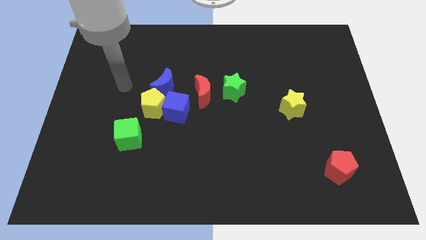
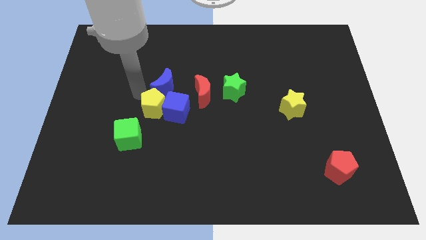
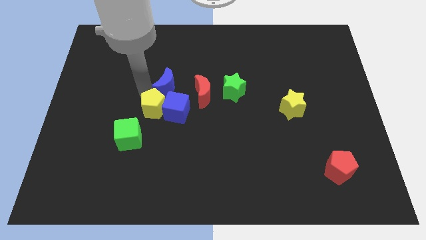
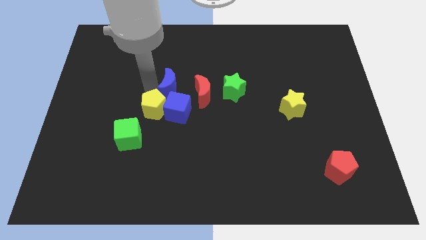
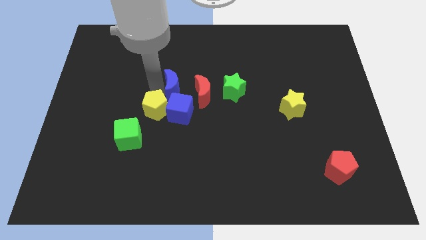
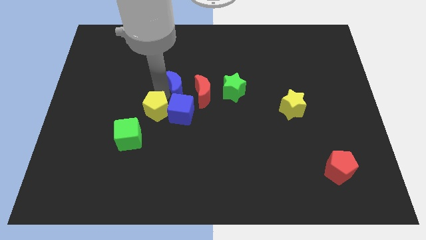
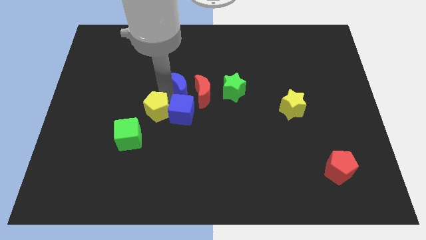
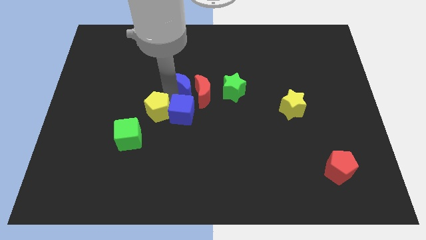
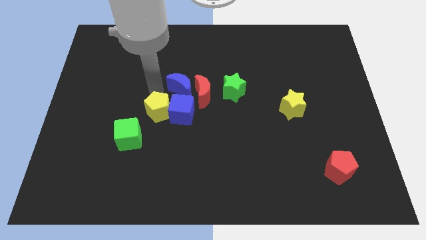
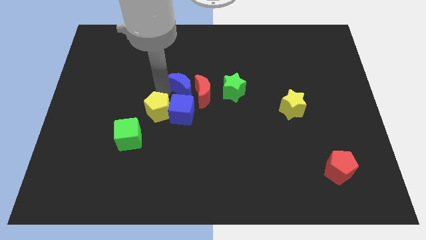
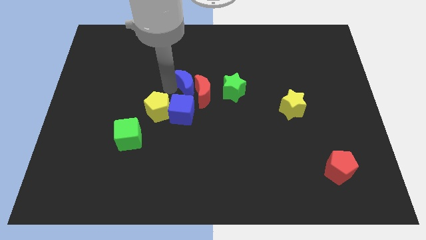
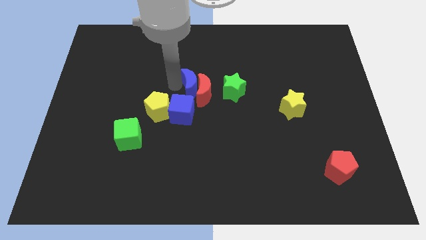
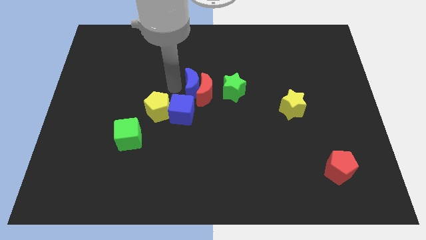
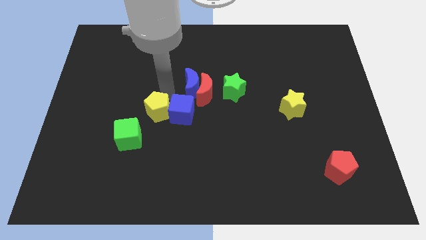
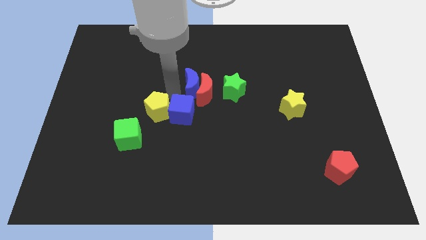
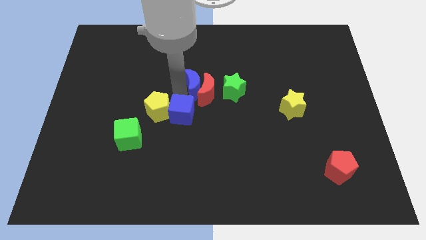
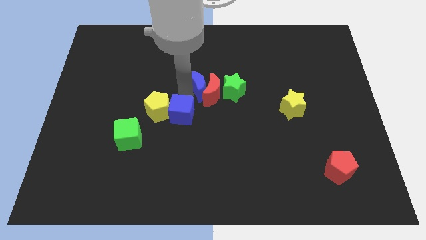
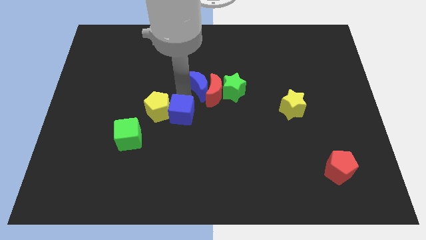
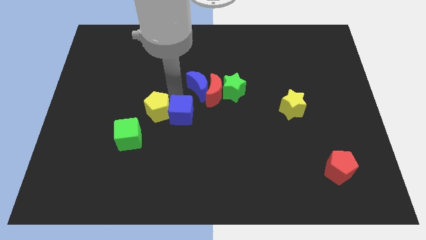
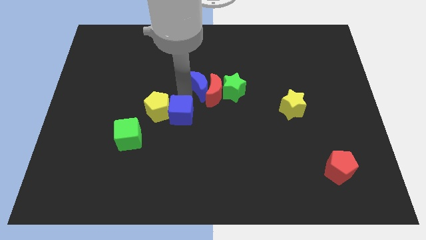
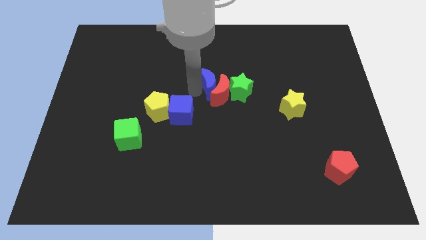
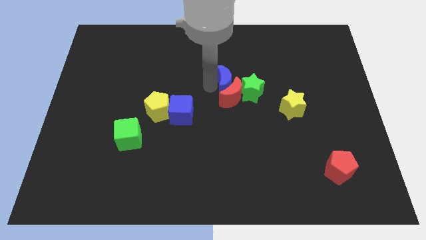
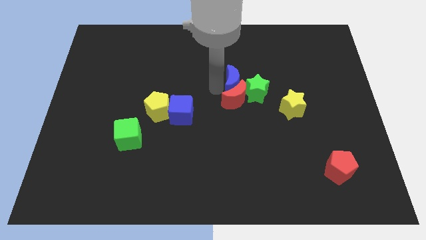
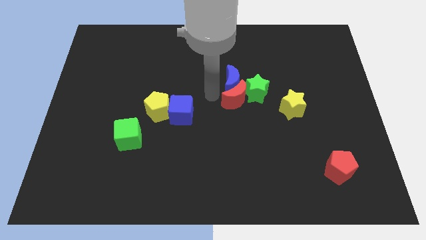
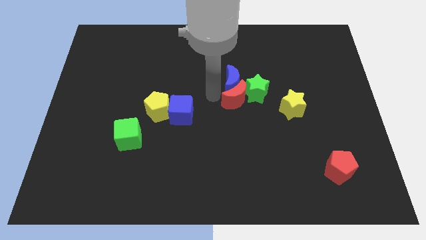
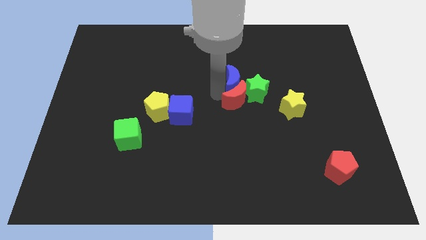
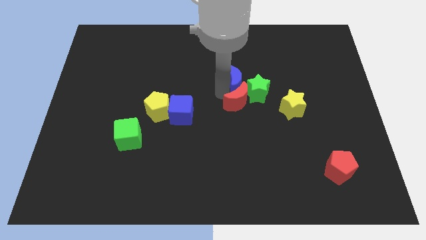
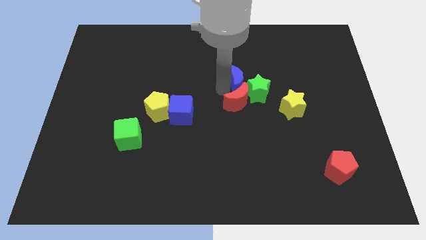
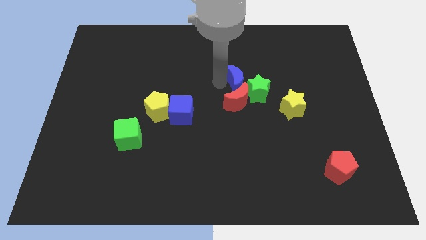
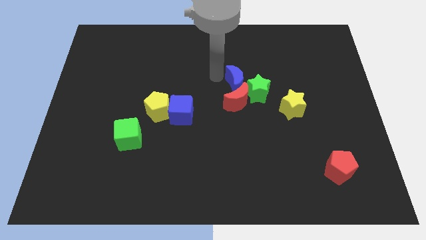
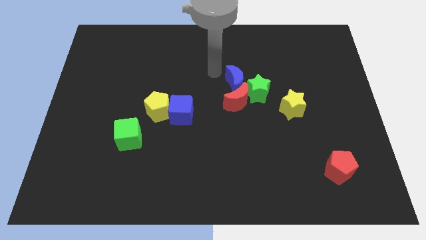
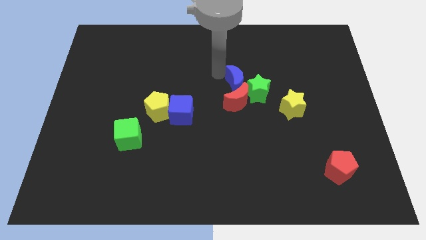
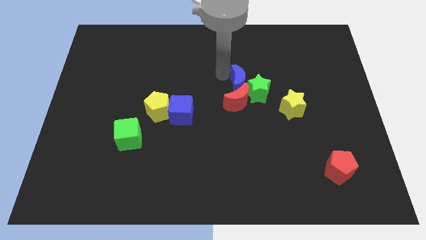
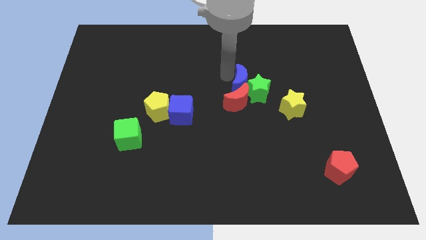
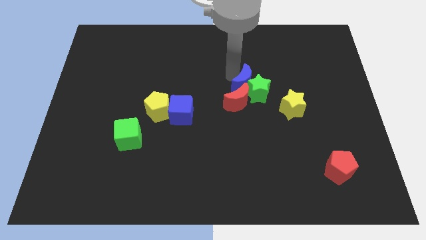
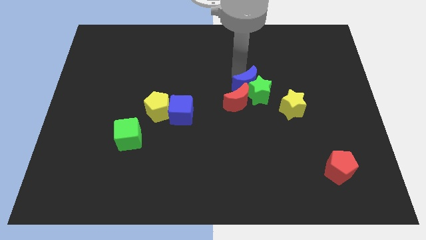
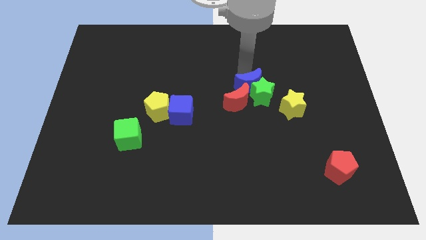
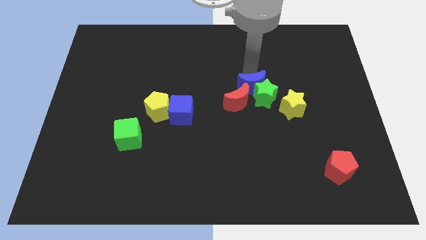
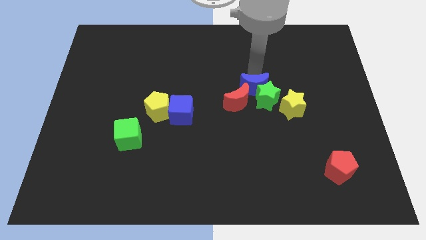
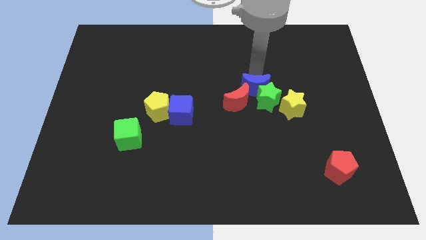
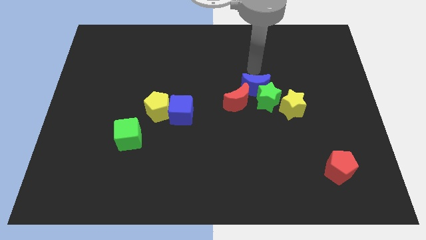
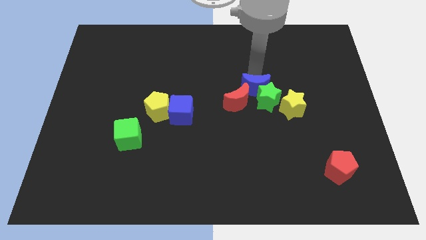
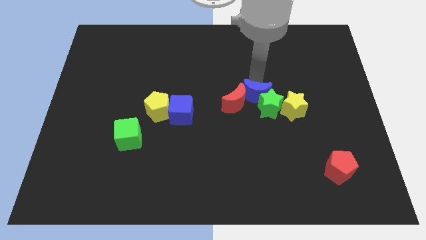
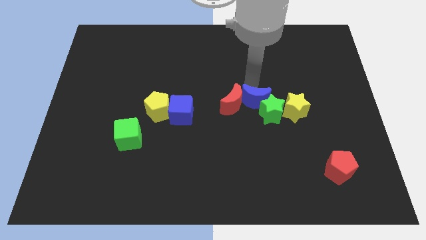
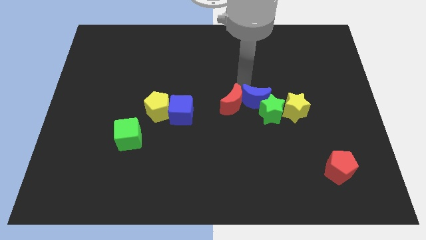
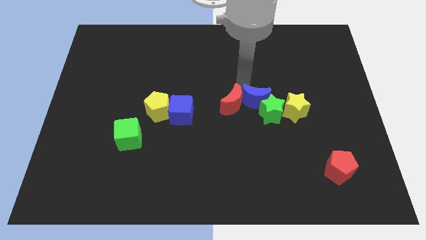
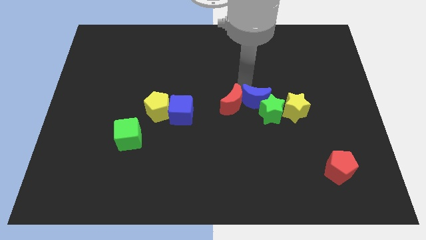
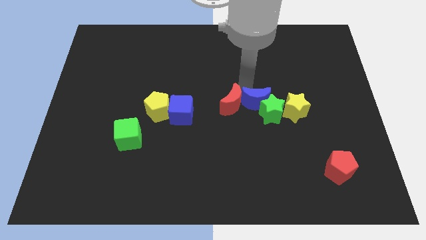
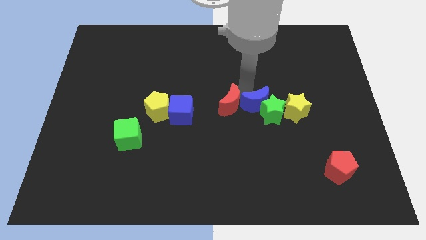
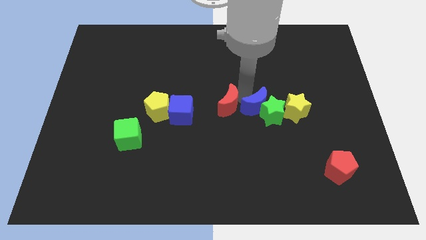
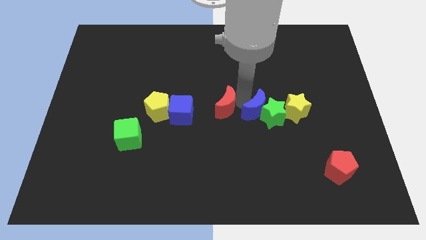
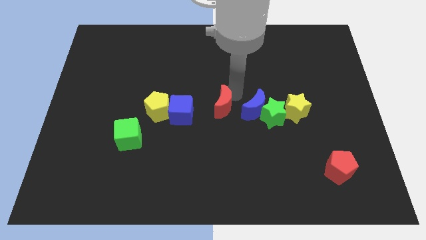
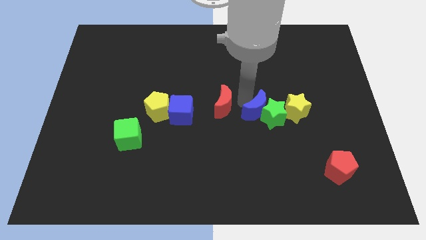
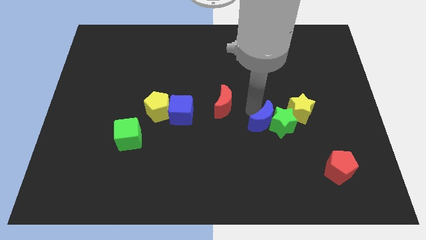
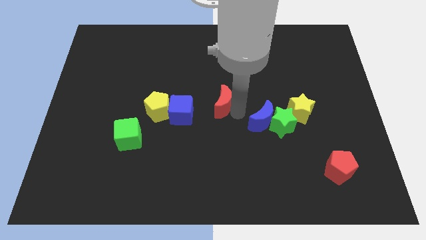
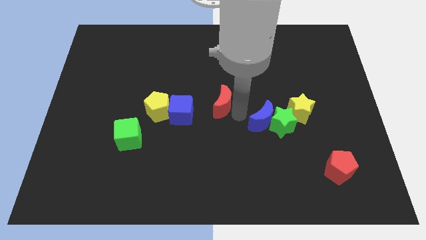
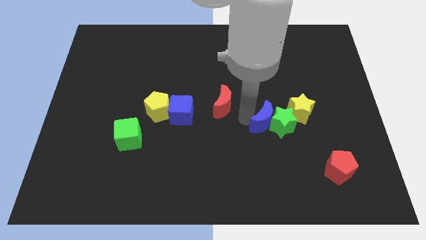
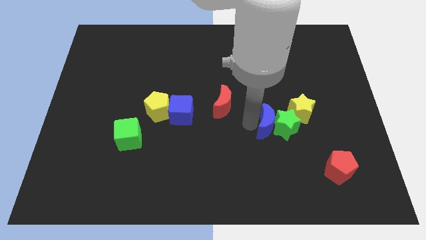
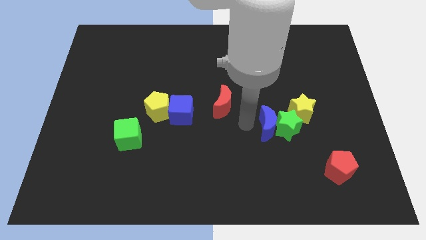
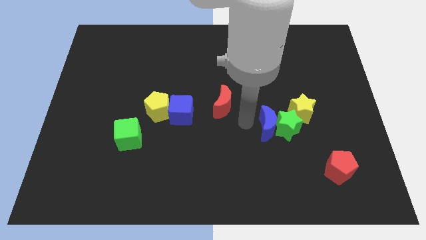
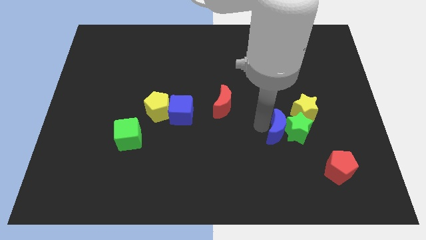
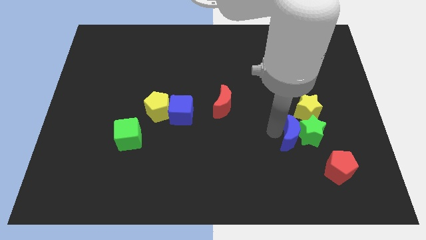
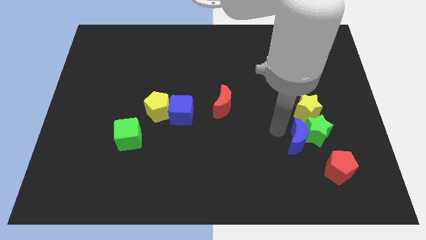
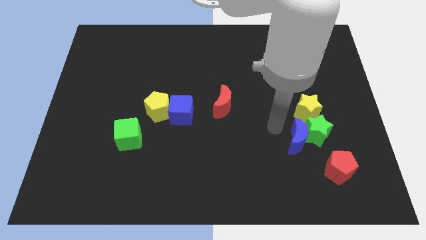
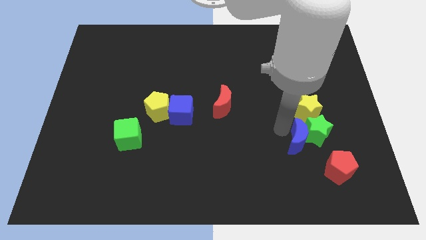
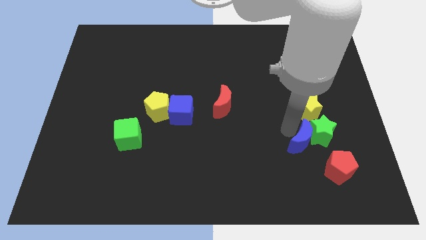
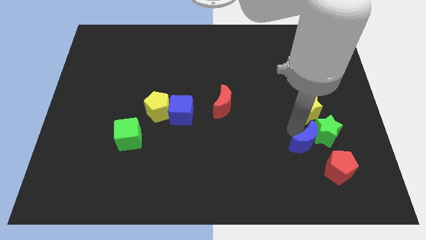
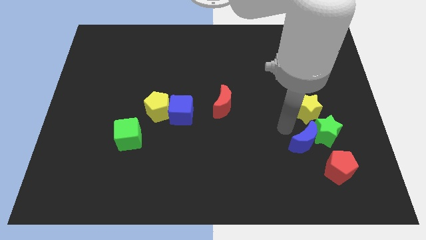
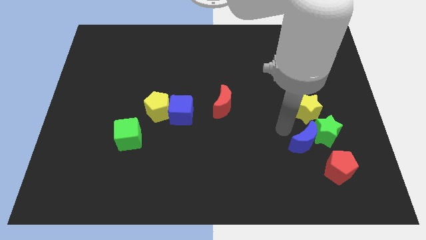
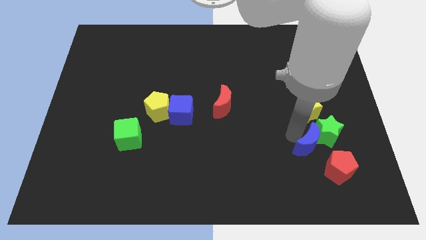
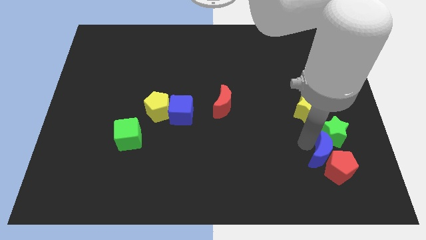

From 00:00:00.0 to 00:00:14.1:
move the blue moon to the red pentagon

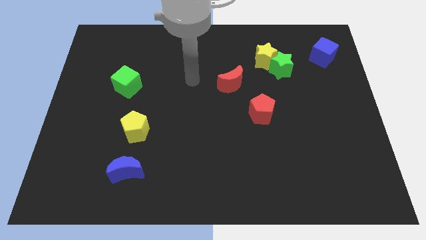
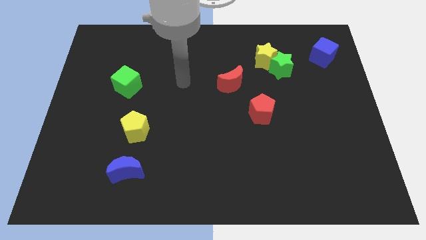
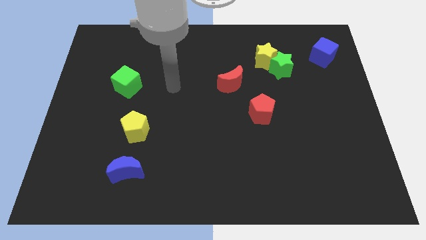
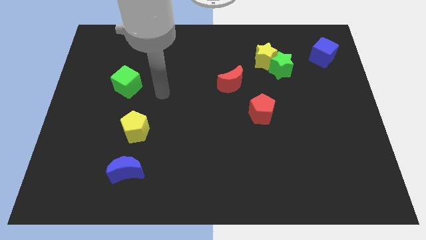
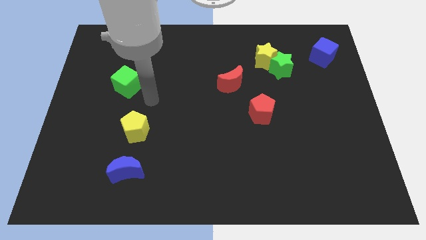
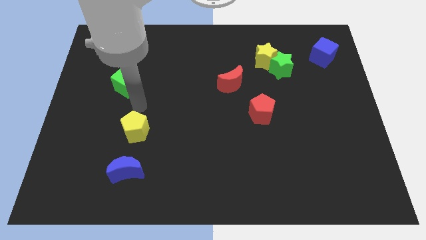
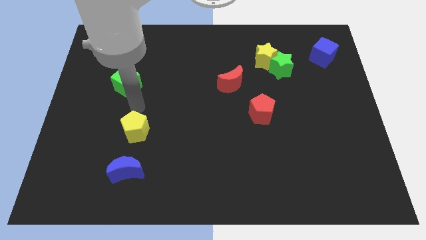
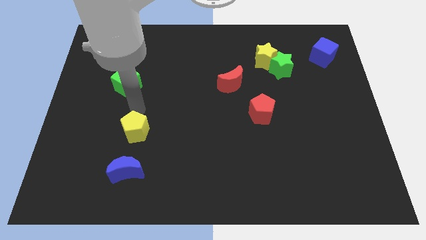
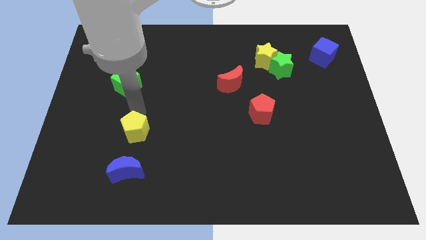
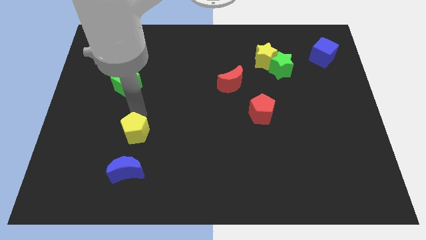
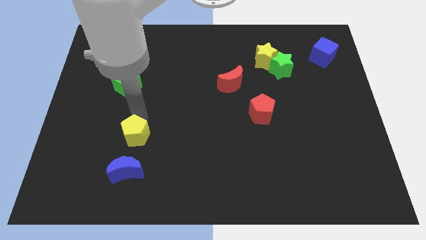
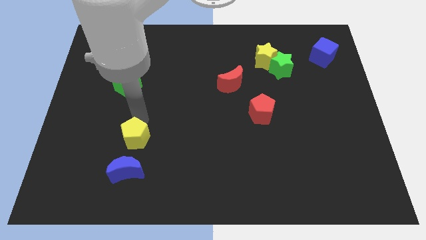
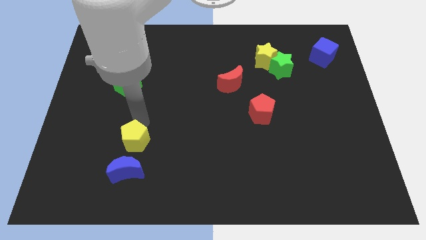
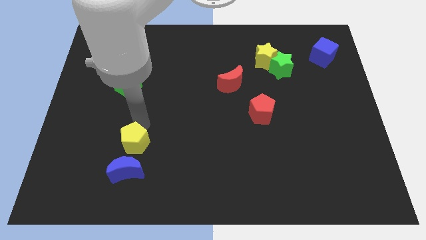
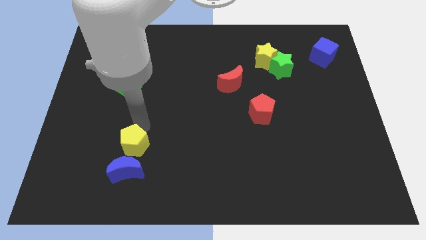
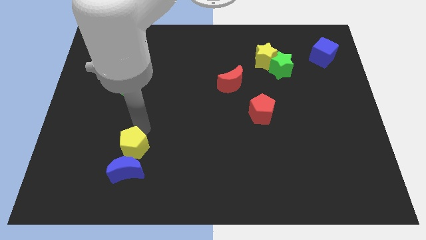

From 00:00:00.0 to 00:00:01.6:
move the yellow pentagon next to the blue moon
